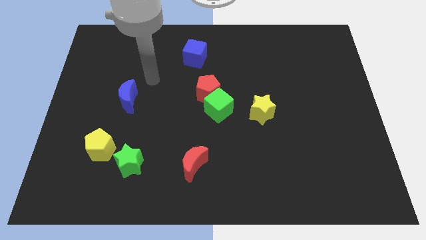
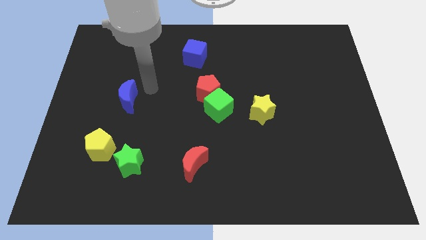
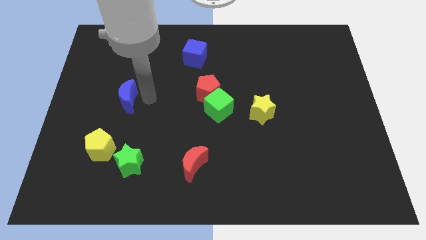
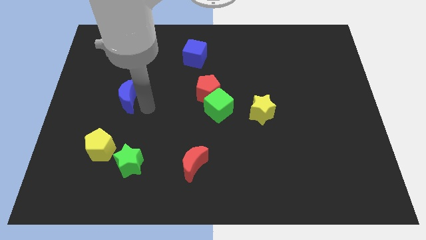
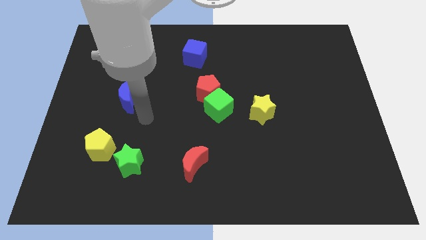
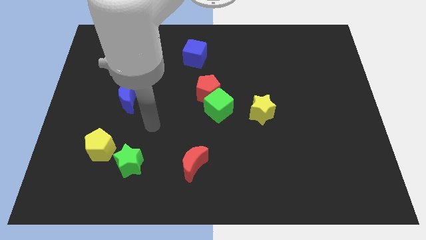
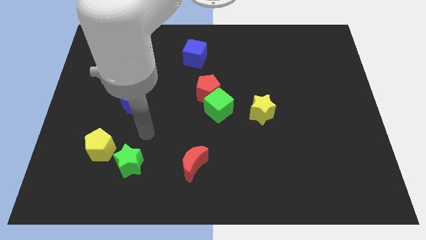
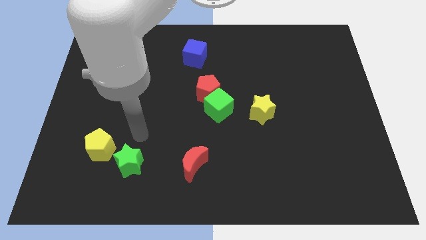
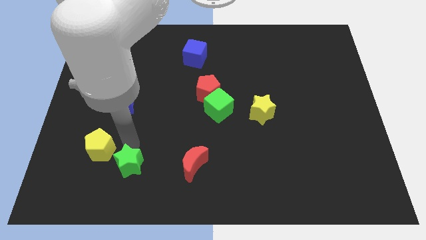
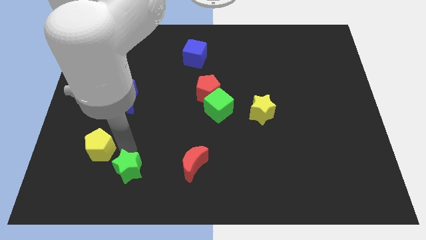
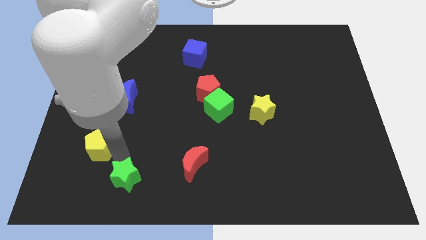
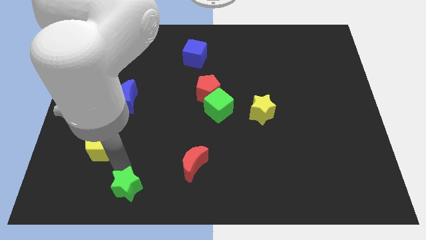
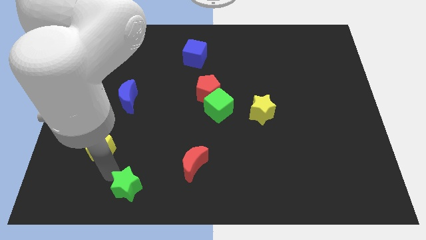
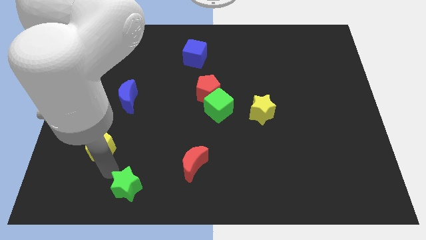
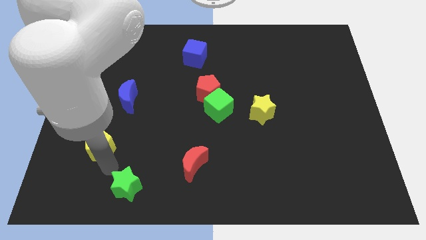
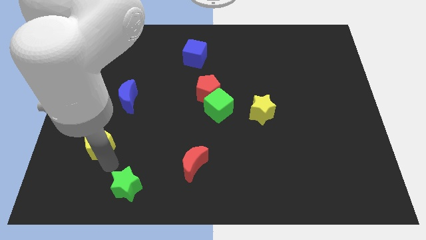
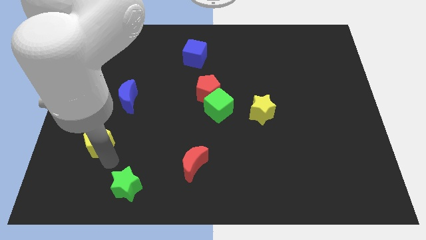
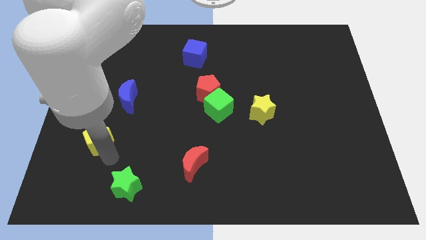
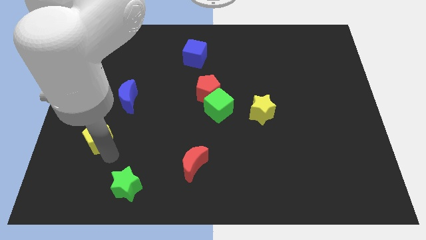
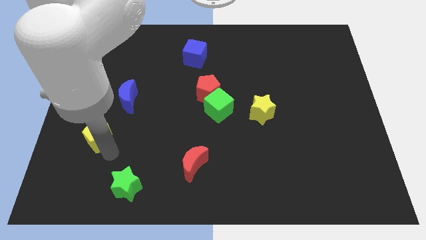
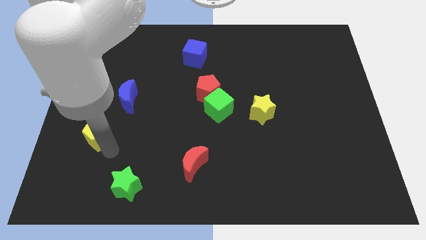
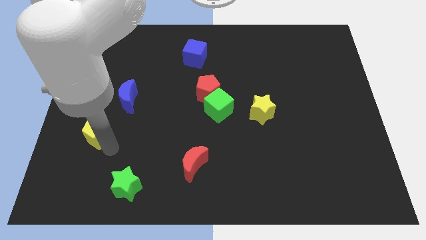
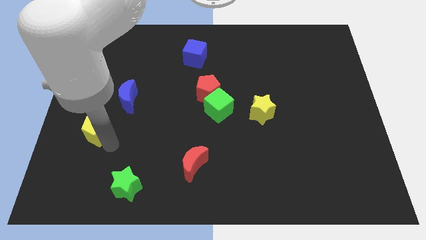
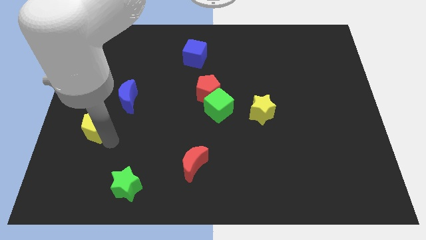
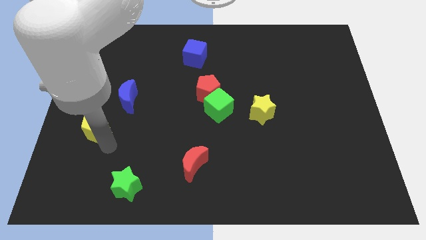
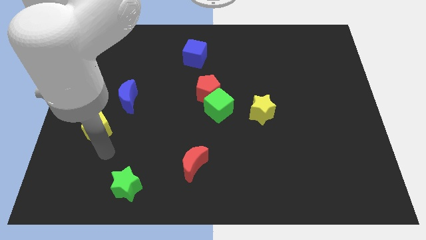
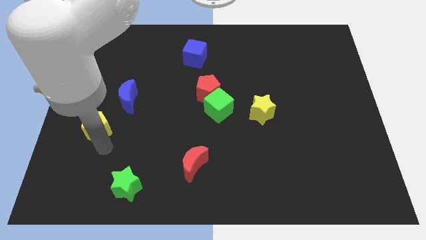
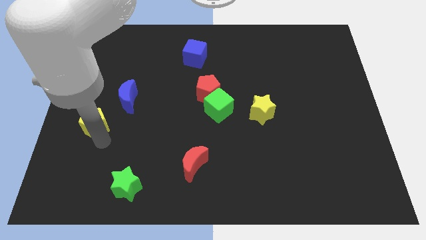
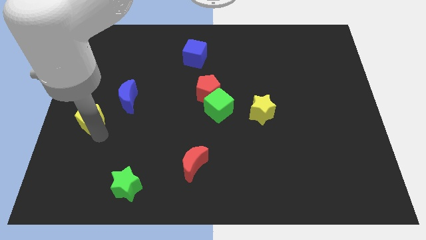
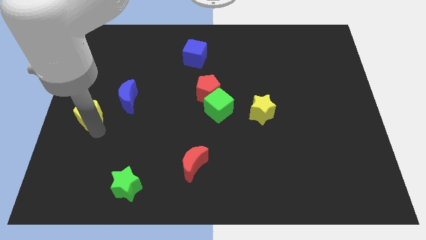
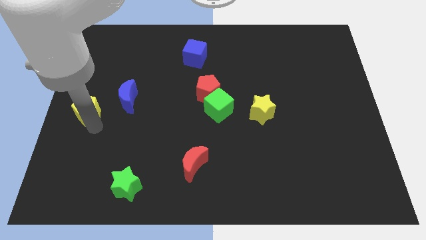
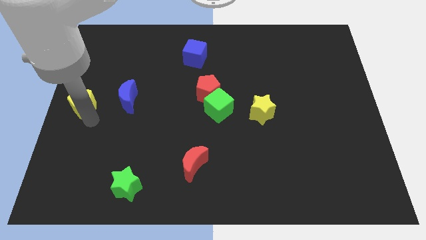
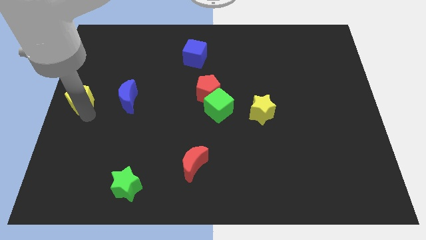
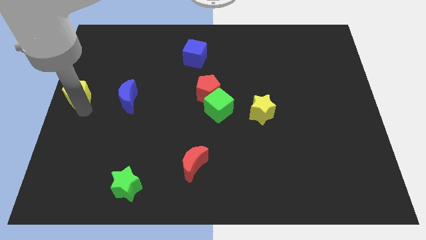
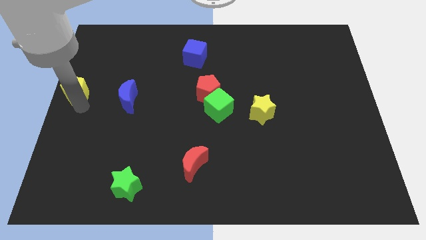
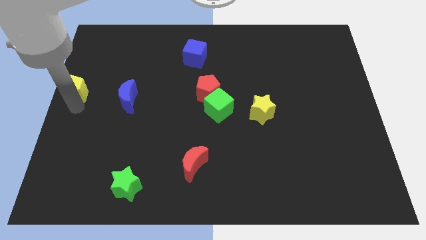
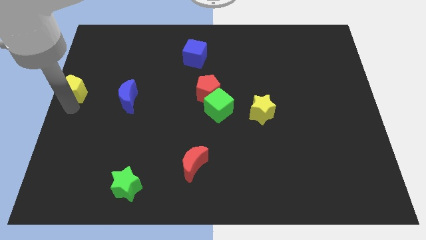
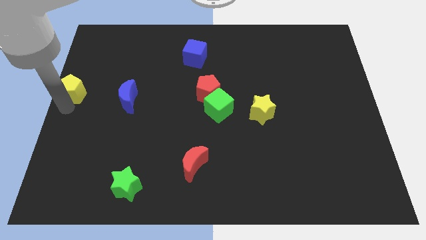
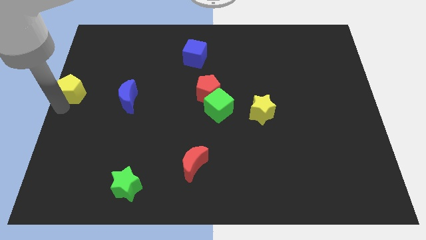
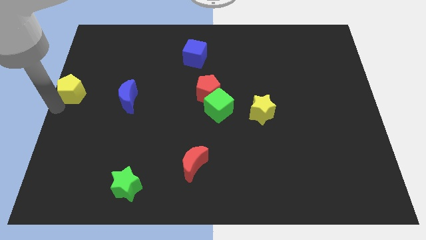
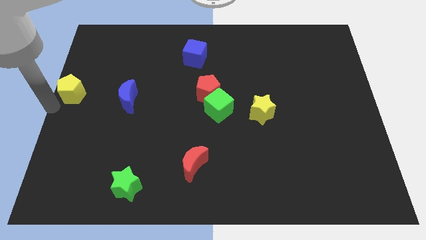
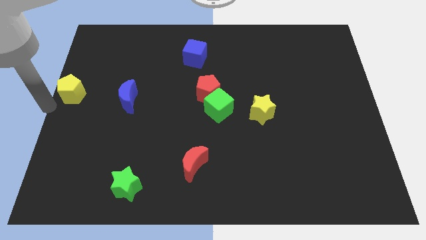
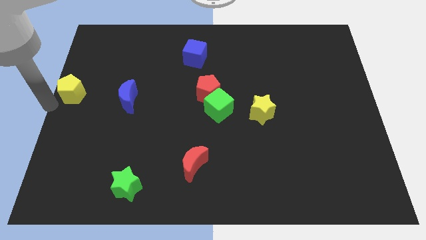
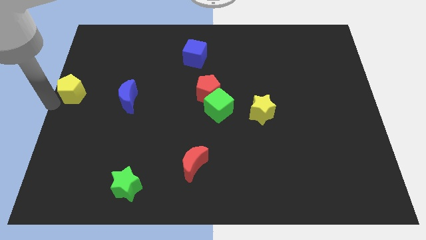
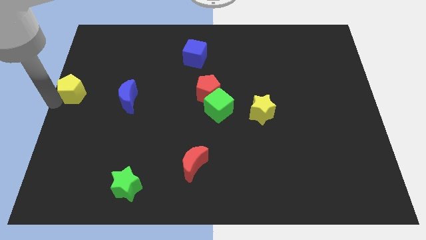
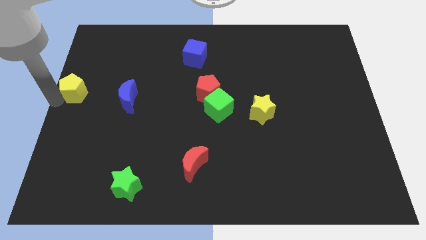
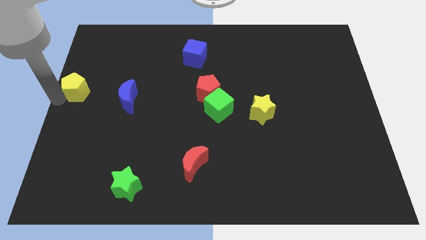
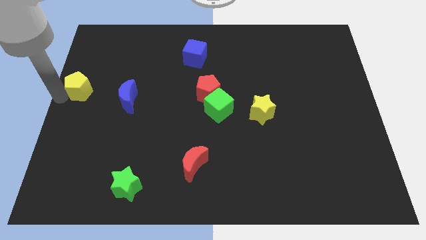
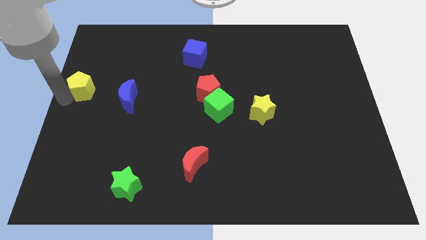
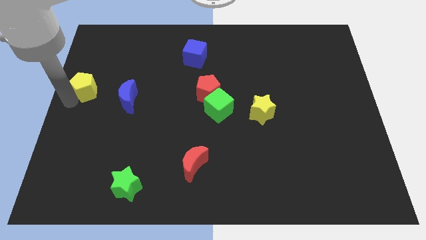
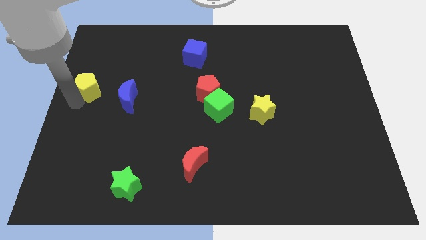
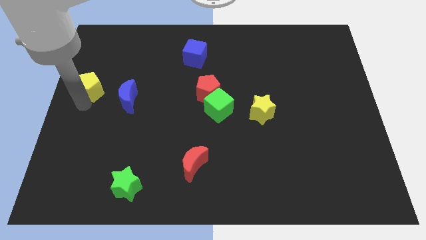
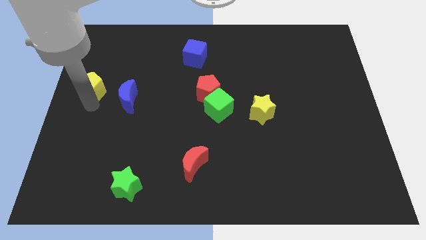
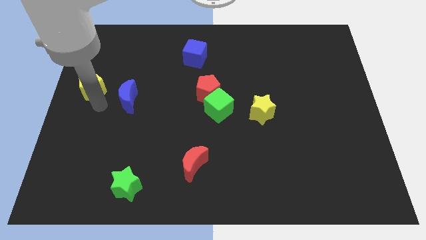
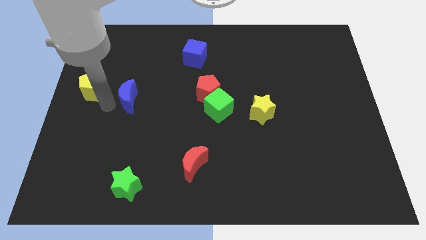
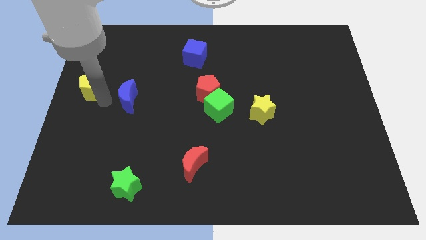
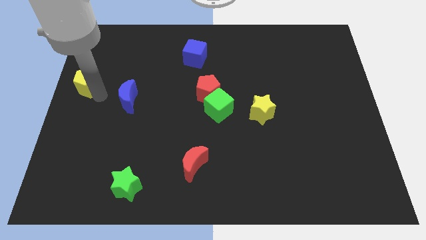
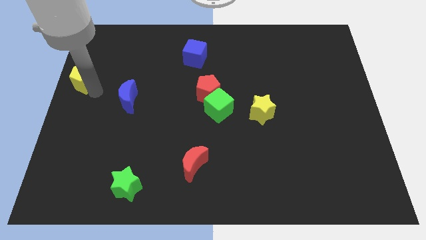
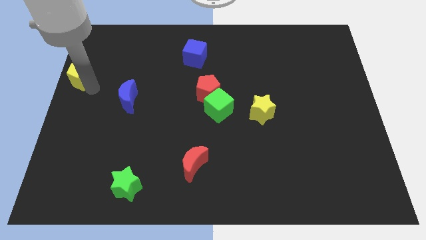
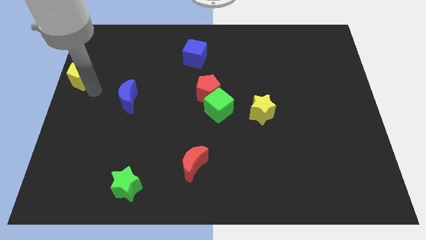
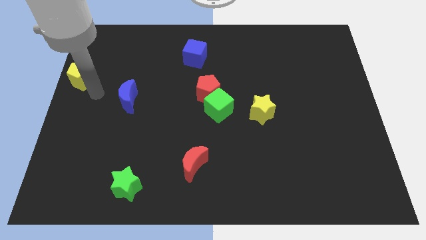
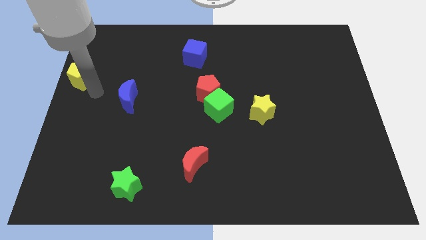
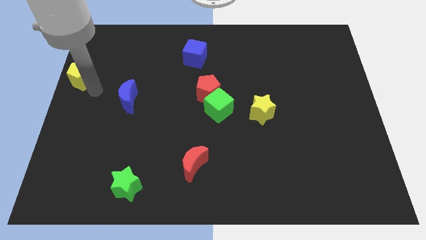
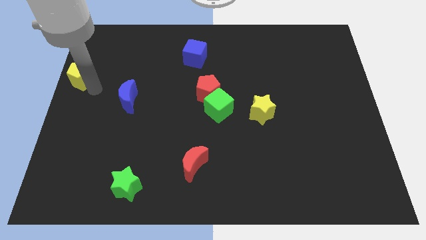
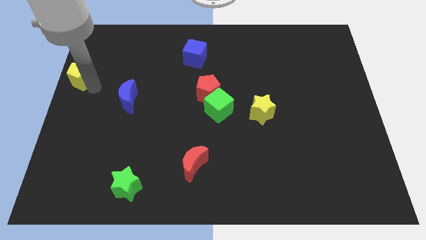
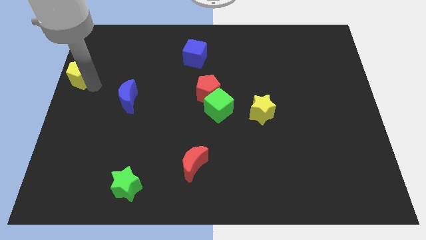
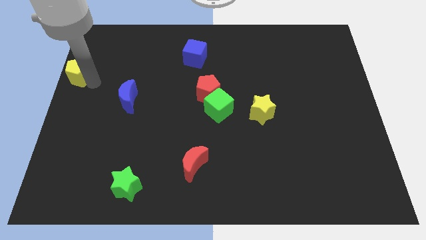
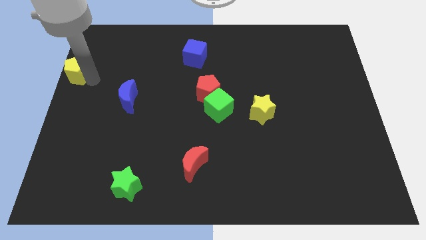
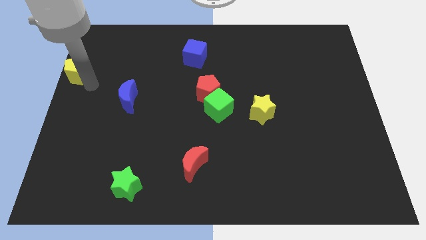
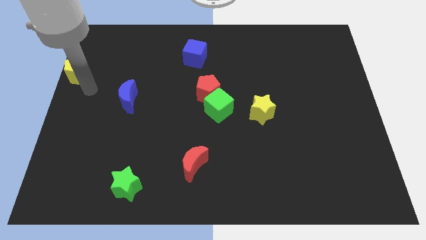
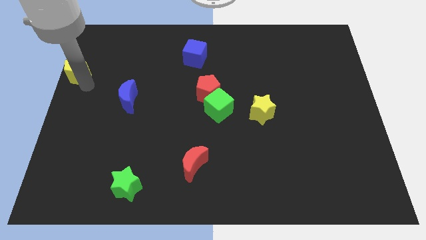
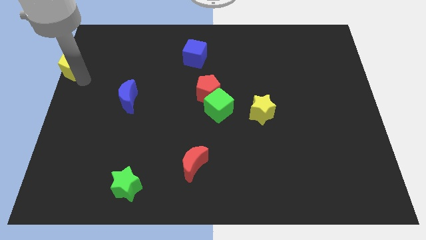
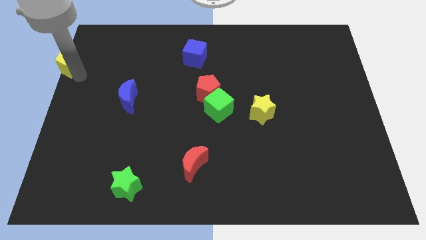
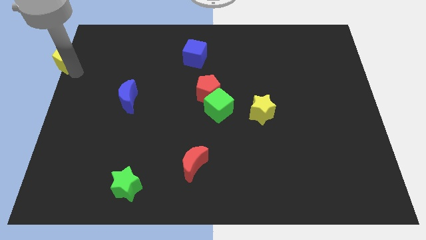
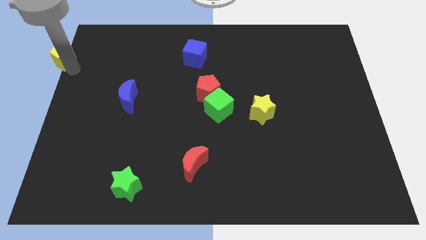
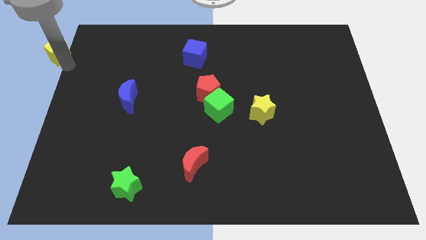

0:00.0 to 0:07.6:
put the yellow pentagon to the upper left corner
